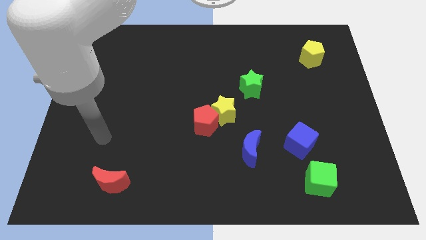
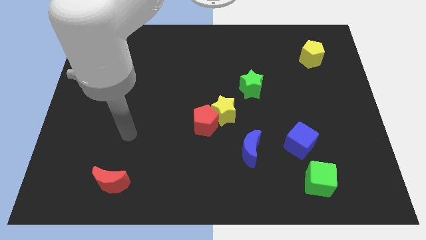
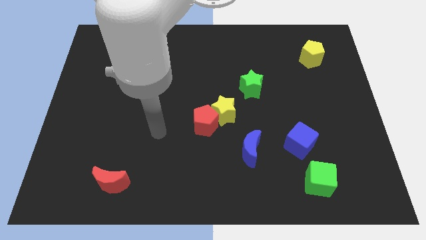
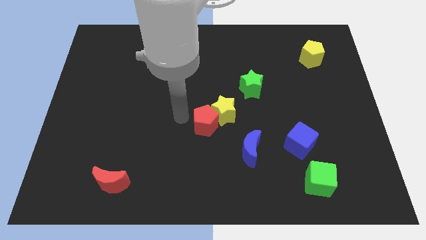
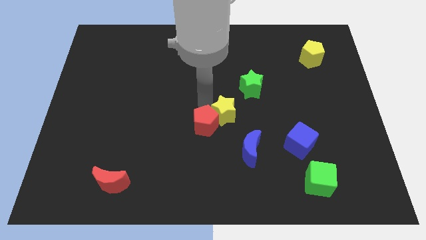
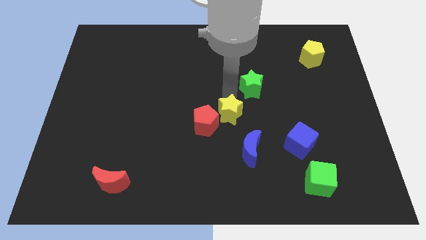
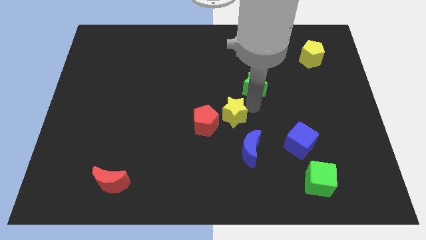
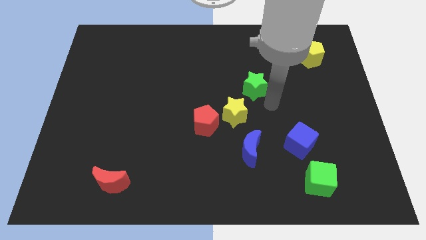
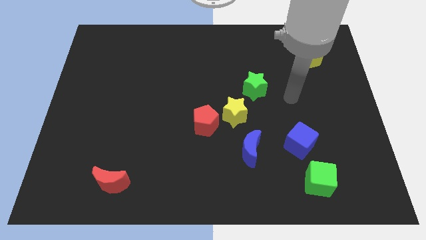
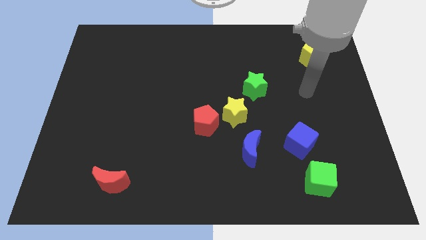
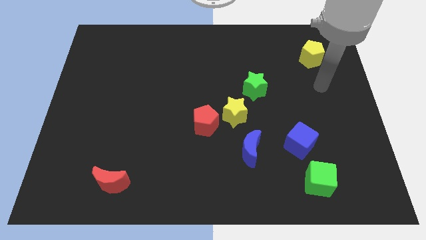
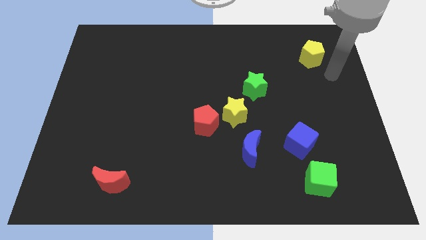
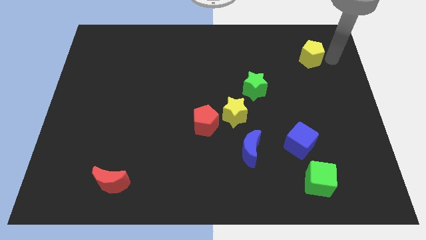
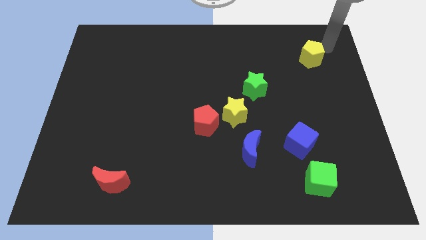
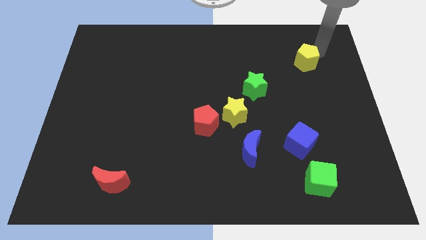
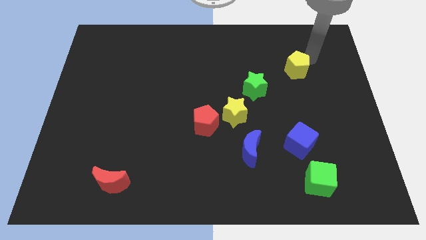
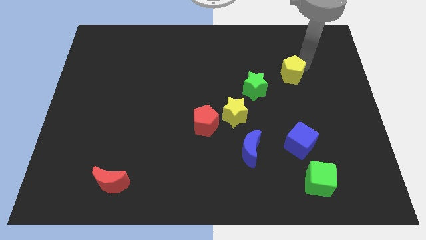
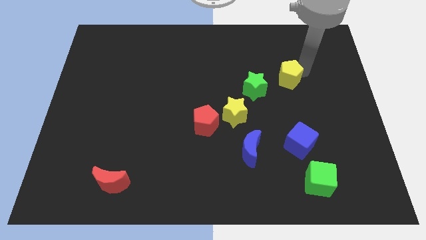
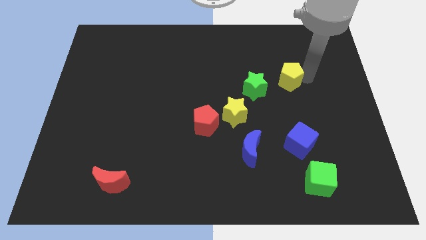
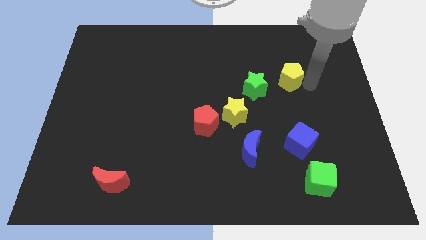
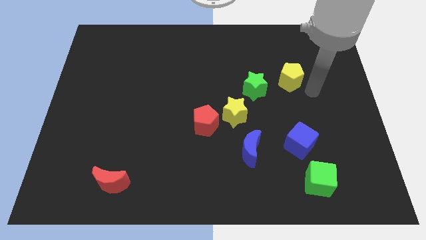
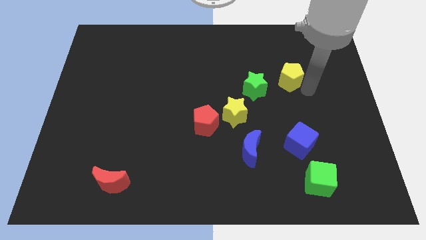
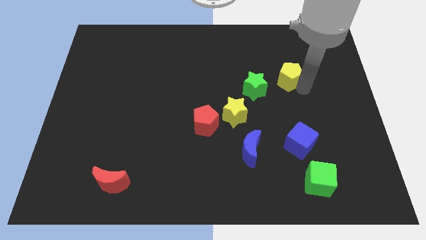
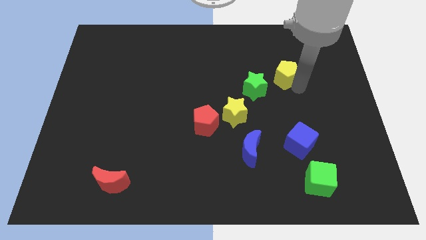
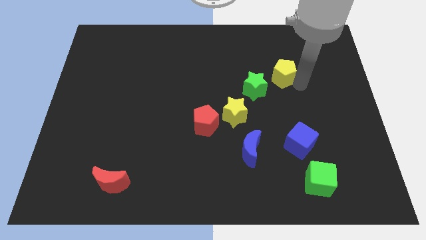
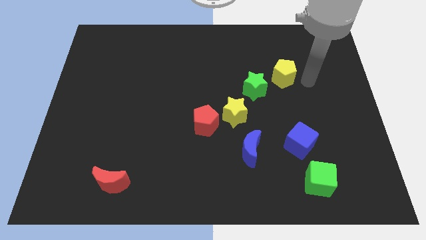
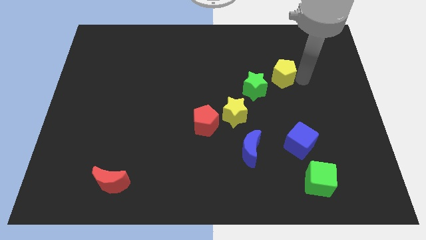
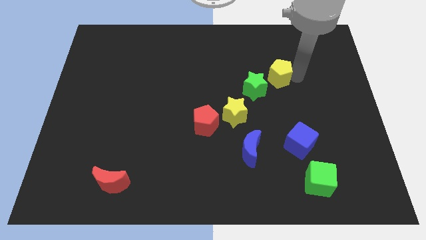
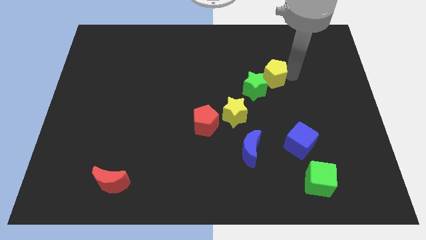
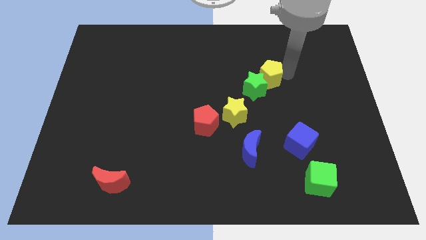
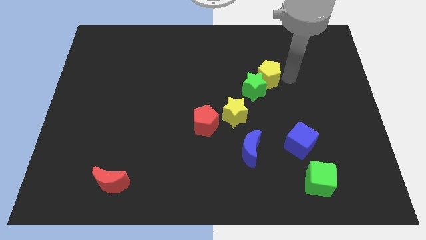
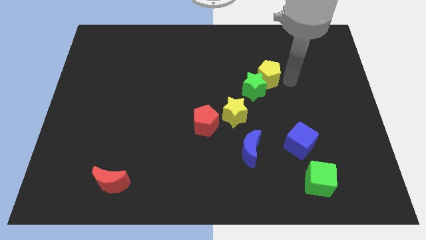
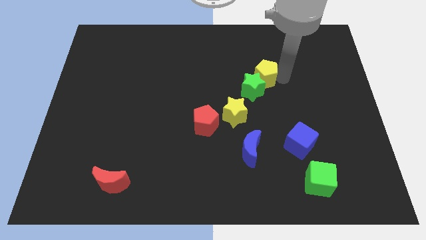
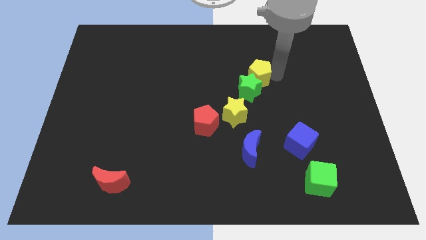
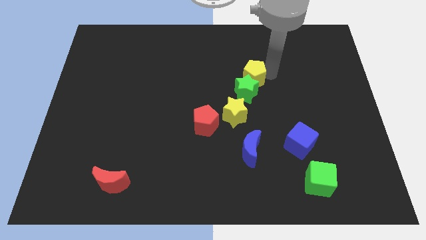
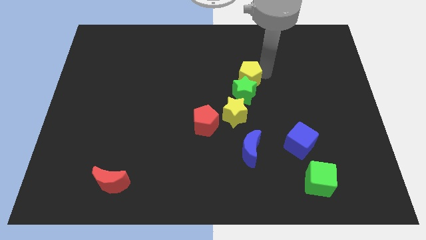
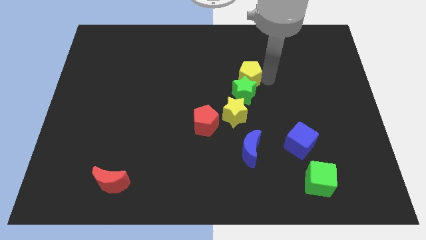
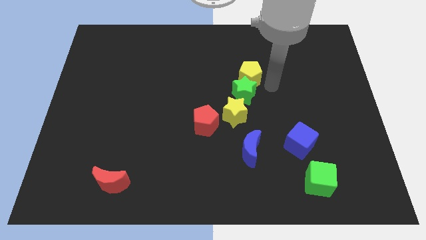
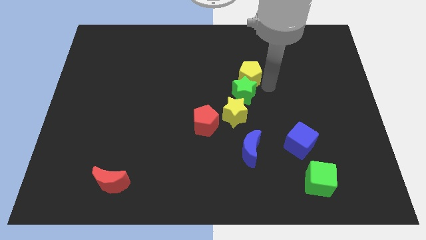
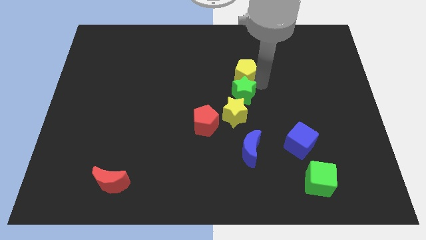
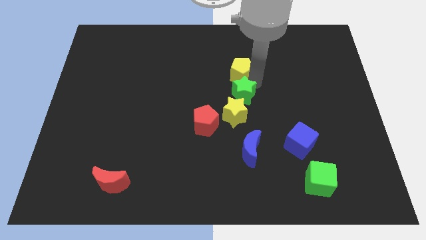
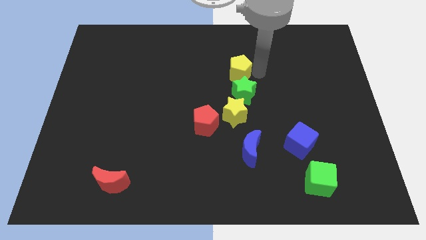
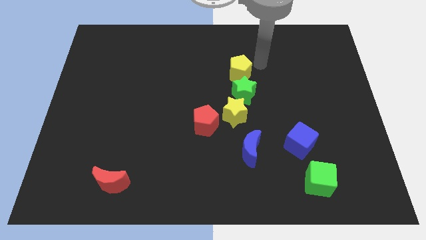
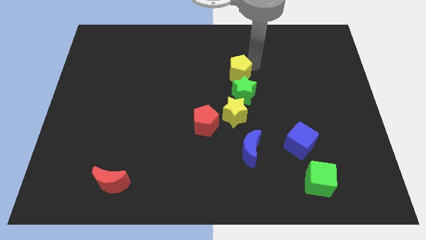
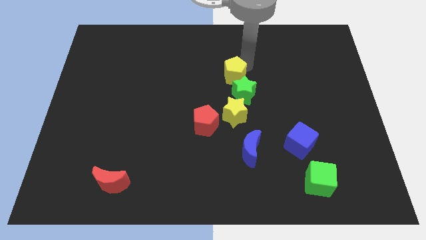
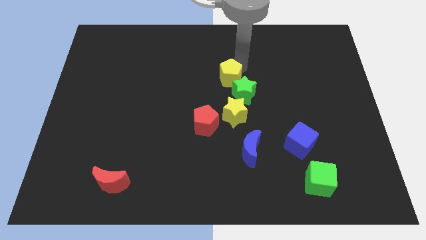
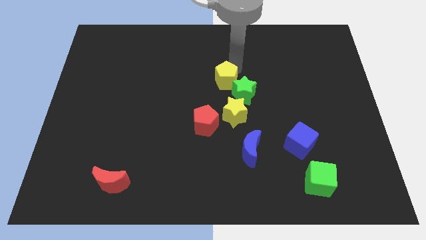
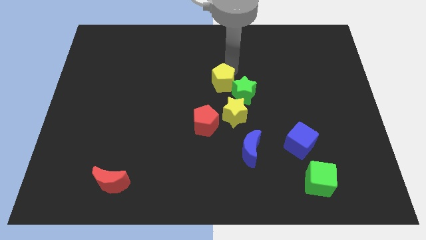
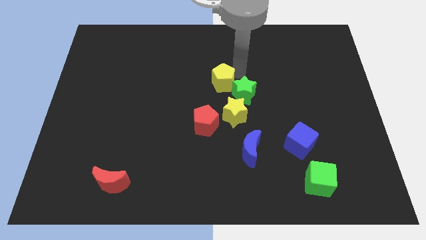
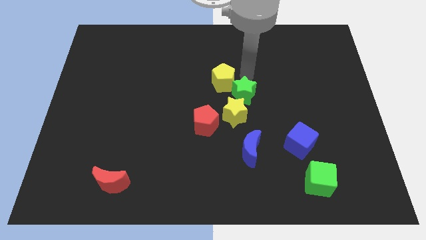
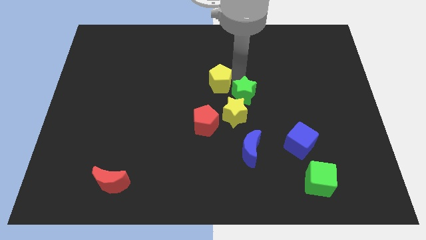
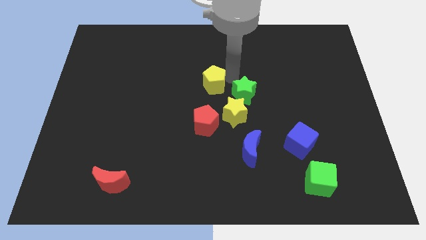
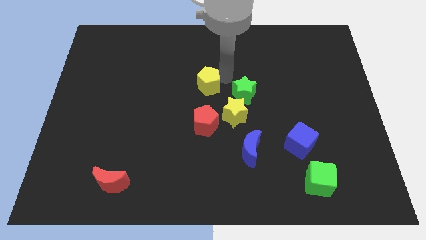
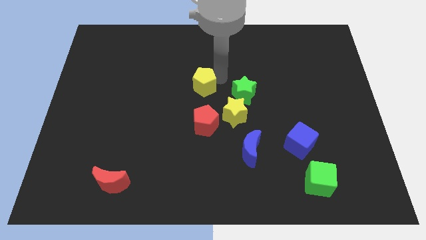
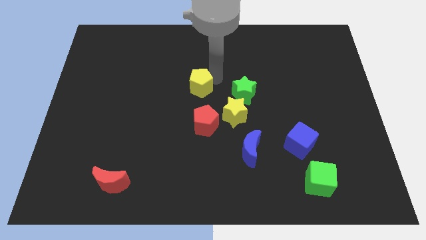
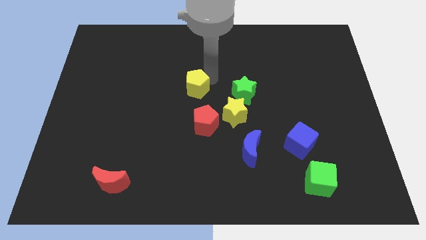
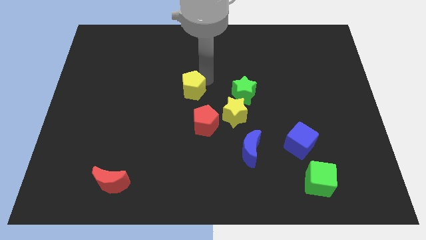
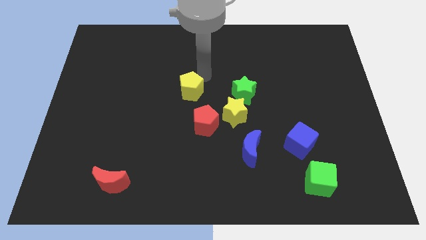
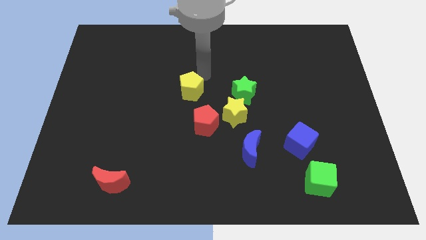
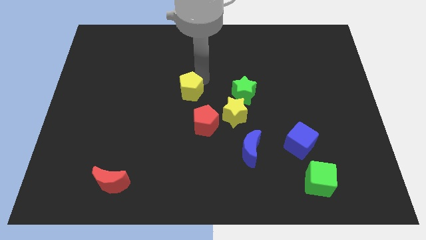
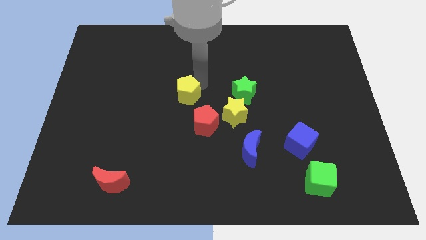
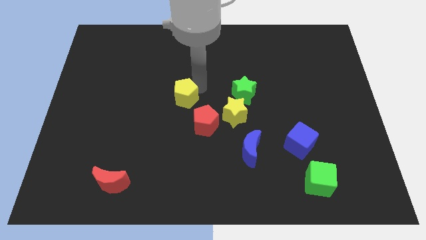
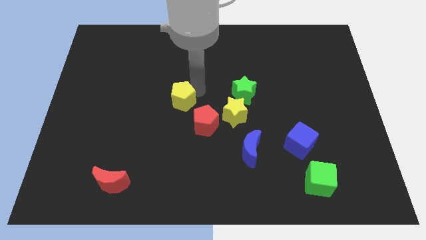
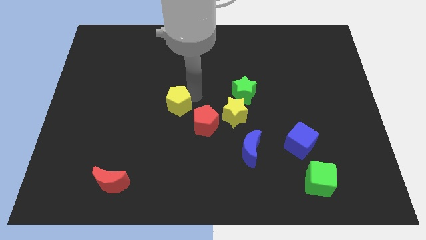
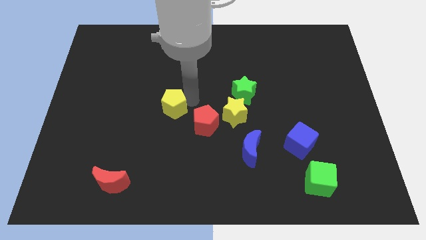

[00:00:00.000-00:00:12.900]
move the yellow pentagon left of the red pentagon

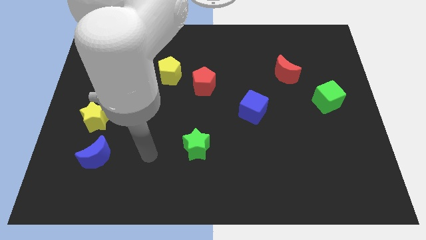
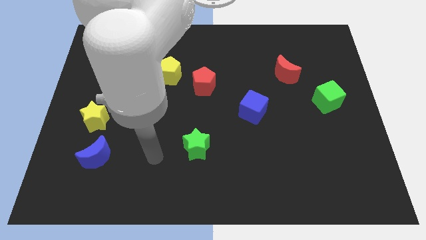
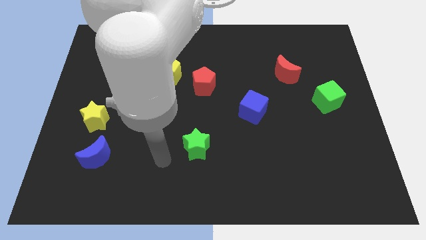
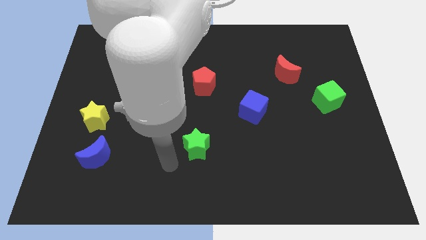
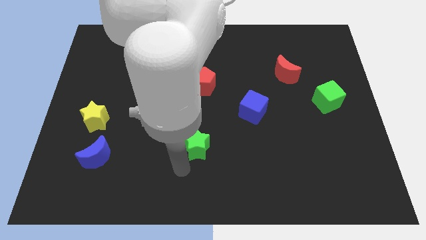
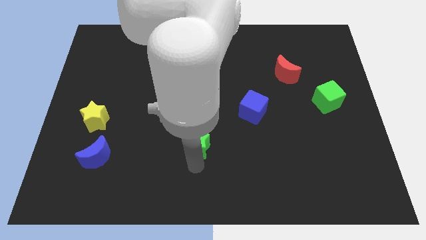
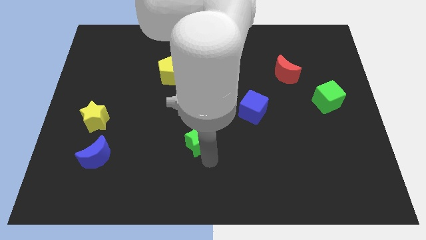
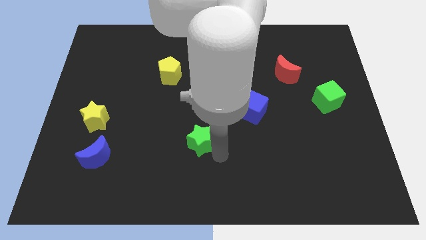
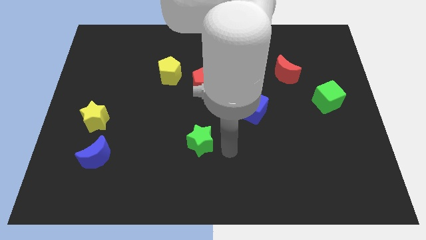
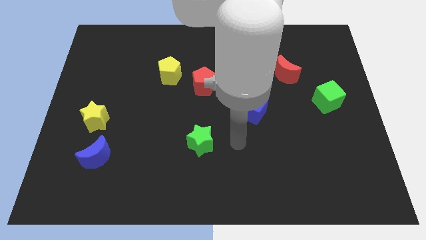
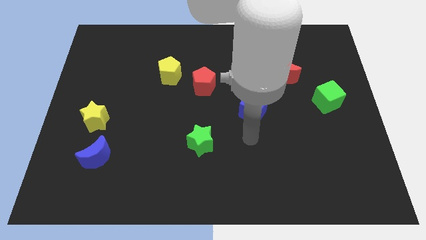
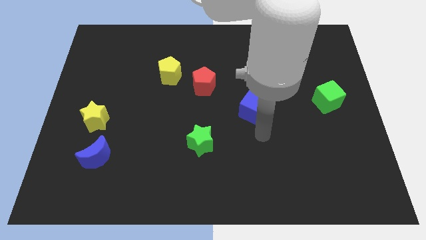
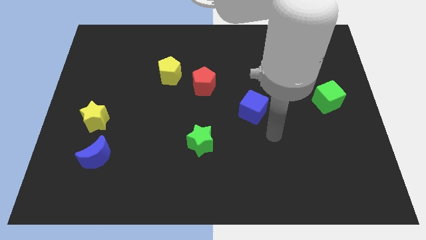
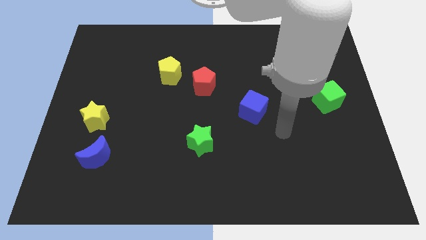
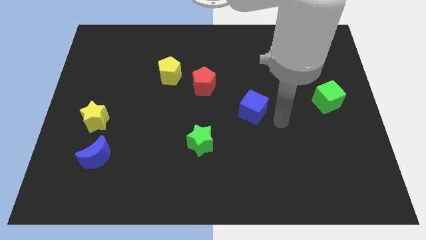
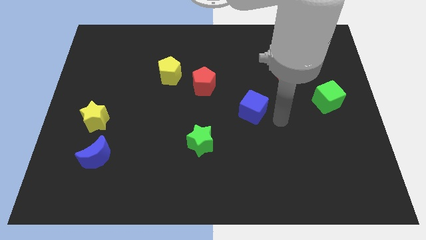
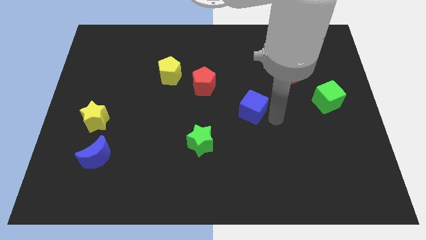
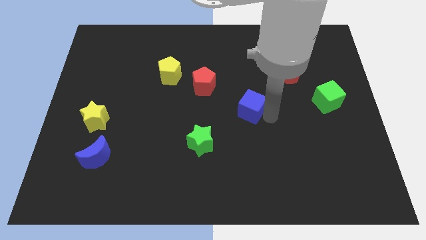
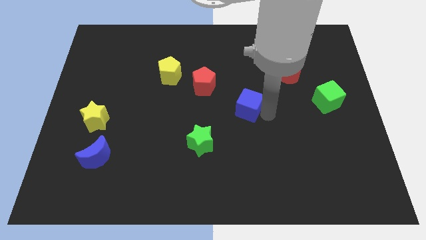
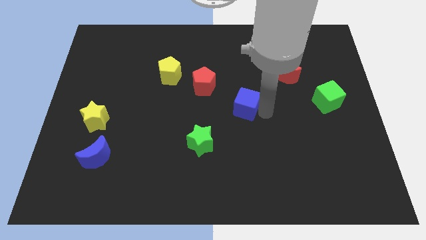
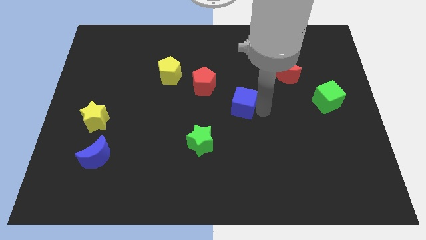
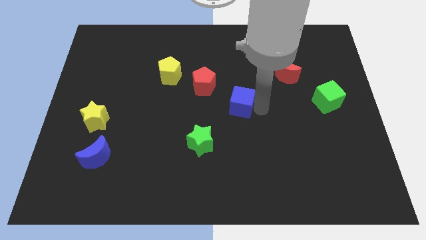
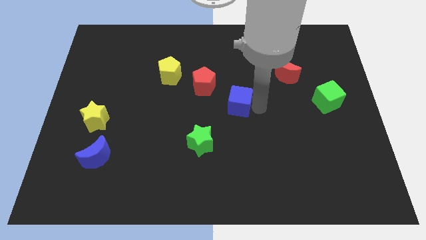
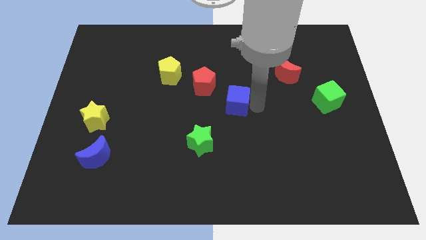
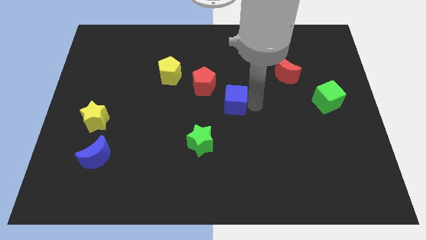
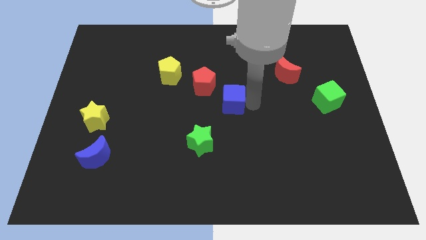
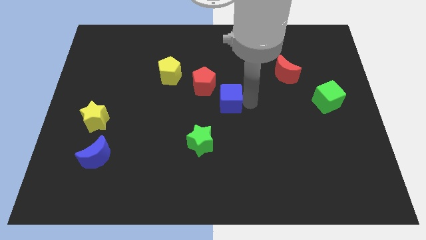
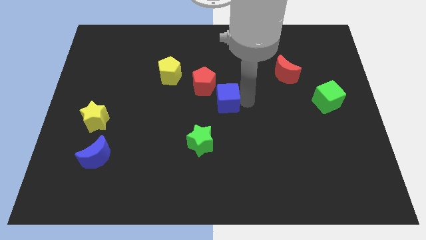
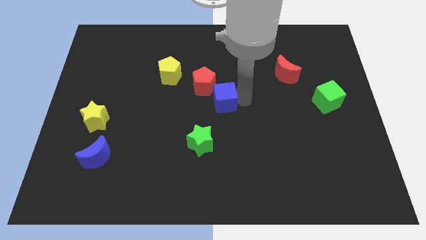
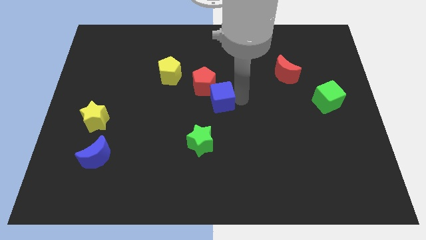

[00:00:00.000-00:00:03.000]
slide the blue cube to the top of the green star
